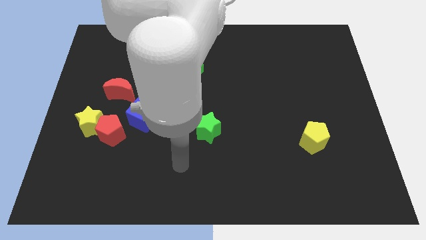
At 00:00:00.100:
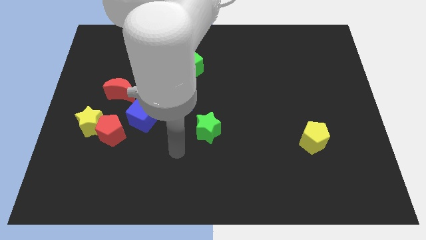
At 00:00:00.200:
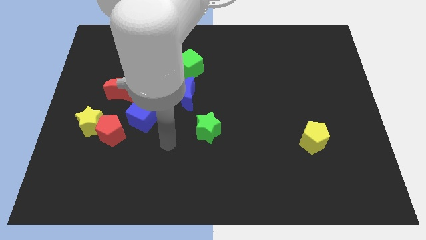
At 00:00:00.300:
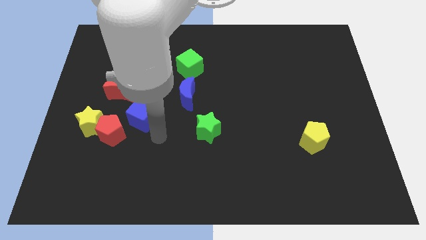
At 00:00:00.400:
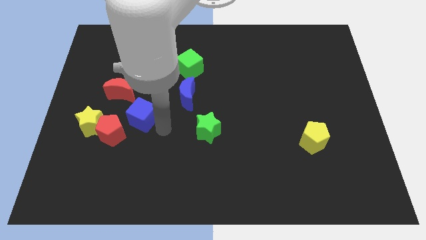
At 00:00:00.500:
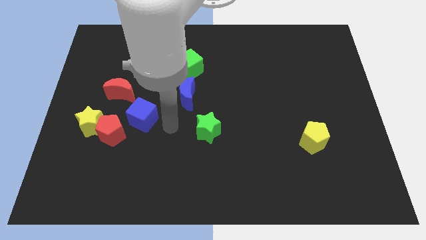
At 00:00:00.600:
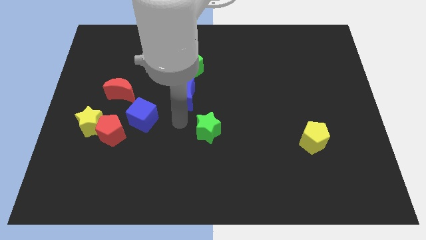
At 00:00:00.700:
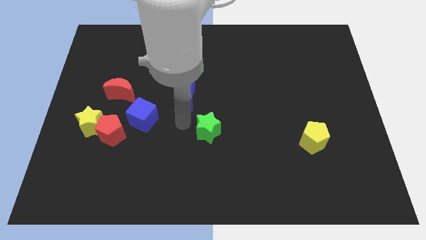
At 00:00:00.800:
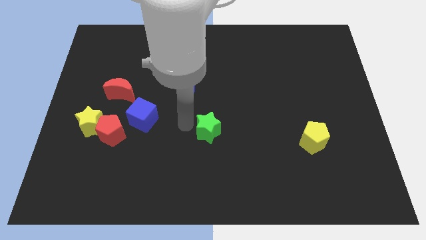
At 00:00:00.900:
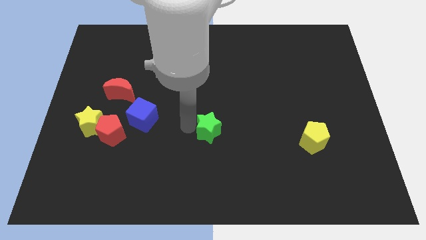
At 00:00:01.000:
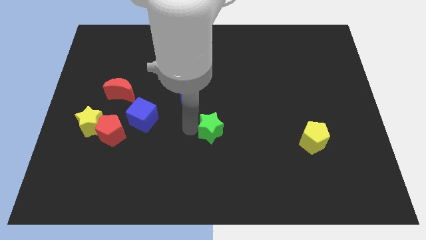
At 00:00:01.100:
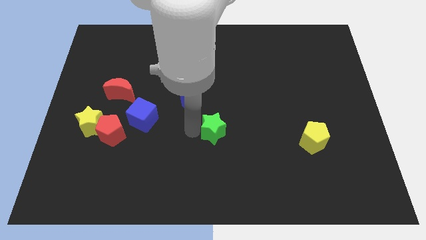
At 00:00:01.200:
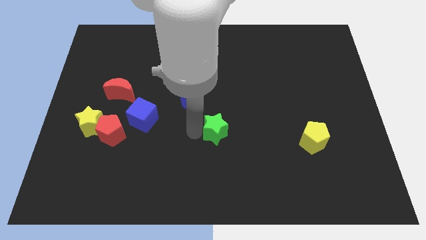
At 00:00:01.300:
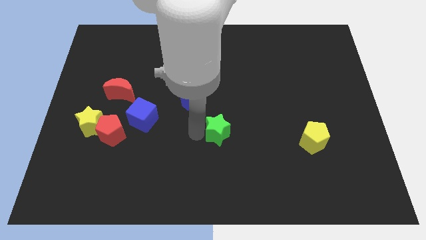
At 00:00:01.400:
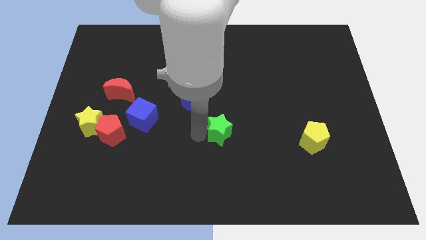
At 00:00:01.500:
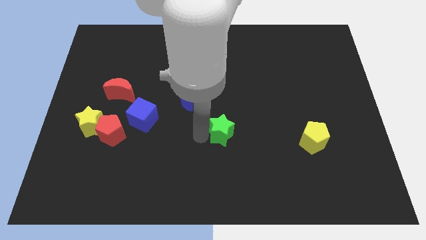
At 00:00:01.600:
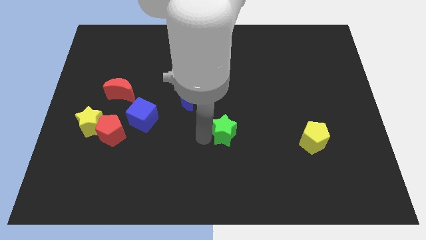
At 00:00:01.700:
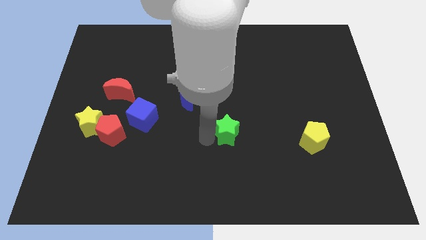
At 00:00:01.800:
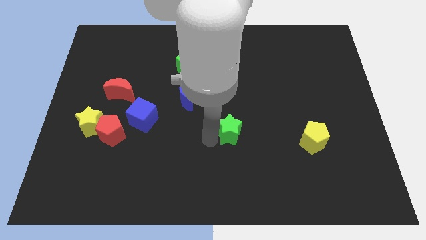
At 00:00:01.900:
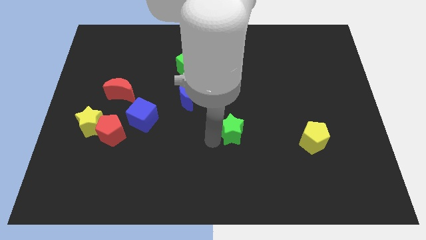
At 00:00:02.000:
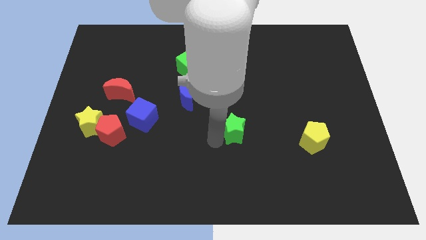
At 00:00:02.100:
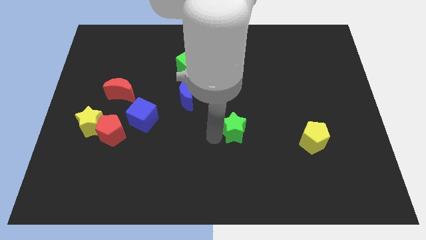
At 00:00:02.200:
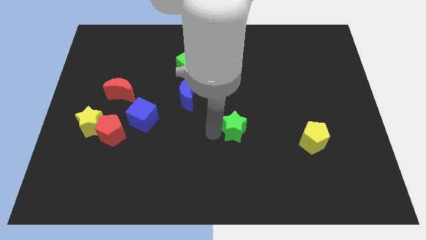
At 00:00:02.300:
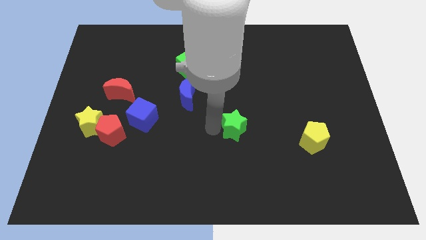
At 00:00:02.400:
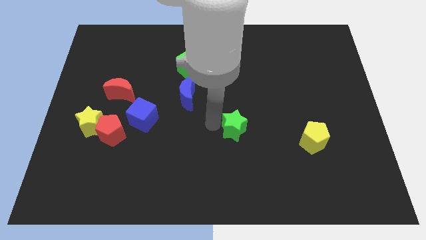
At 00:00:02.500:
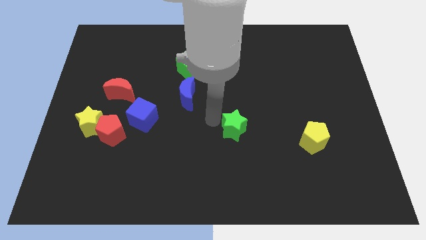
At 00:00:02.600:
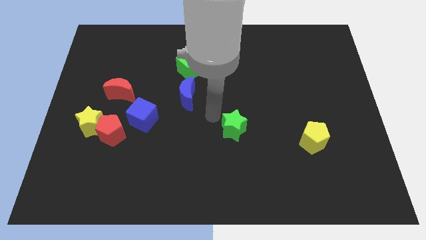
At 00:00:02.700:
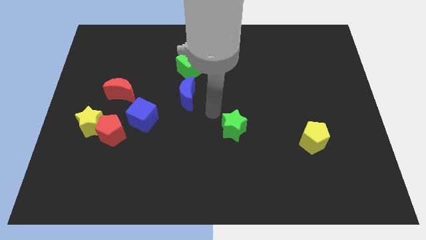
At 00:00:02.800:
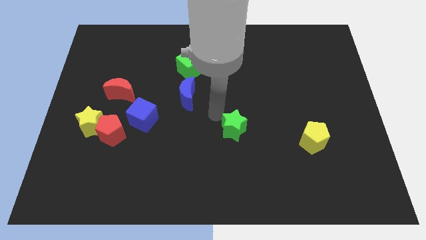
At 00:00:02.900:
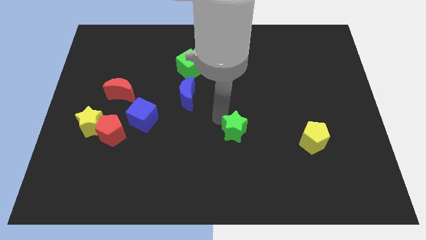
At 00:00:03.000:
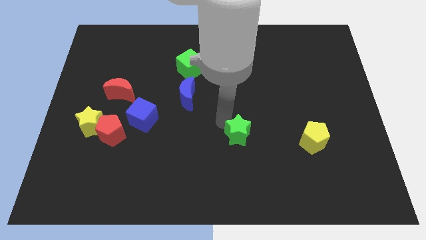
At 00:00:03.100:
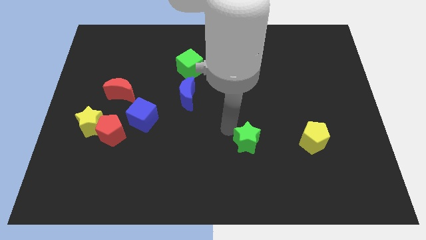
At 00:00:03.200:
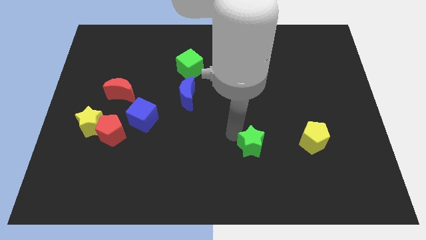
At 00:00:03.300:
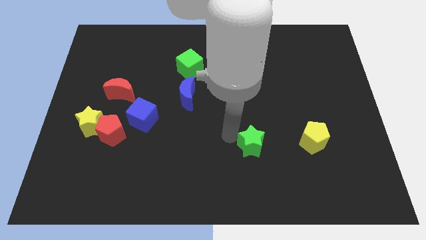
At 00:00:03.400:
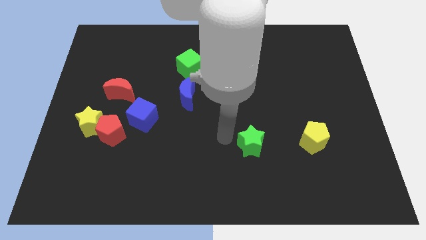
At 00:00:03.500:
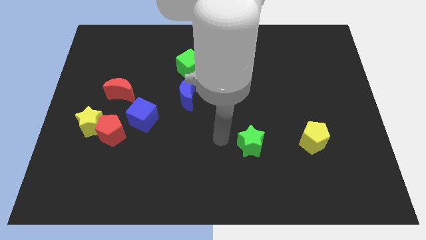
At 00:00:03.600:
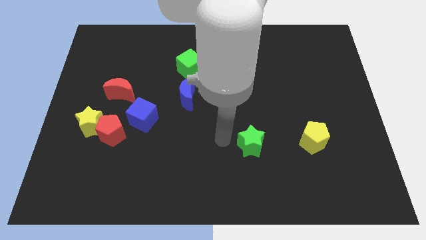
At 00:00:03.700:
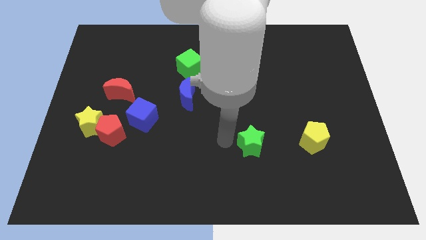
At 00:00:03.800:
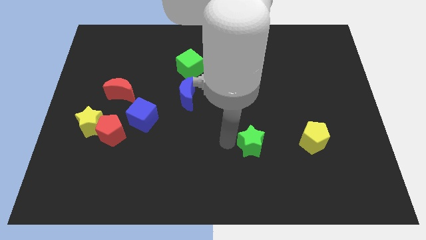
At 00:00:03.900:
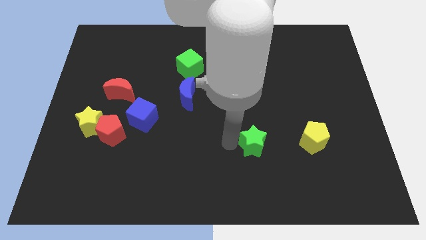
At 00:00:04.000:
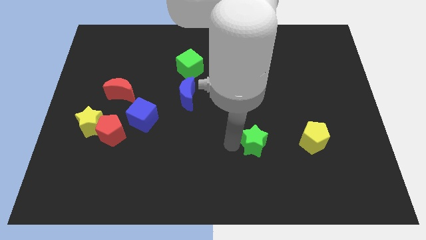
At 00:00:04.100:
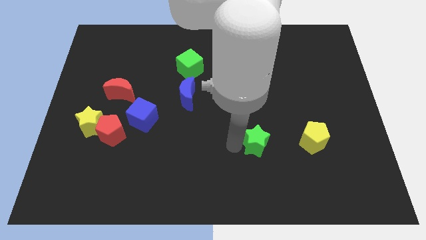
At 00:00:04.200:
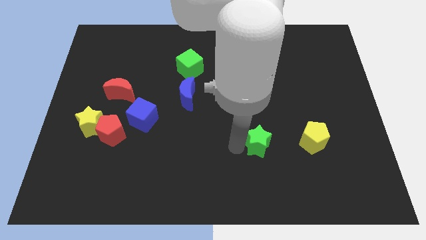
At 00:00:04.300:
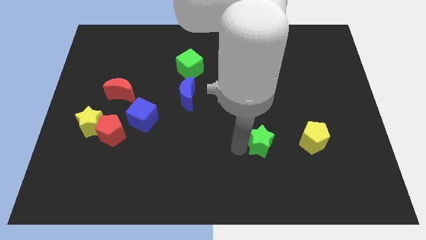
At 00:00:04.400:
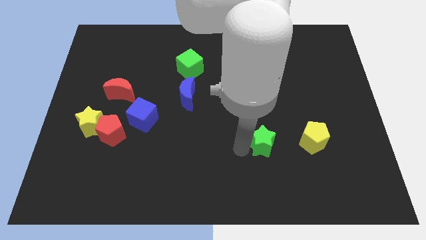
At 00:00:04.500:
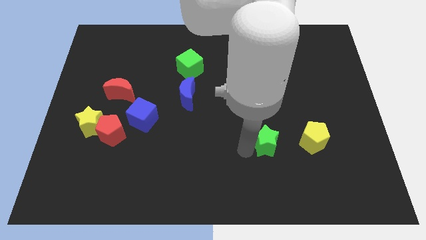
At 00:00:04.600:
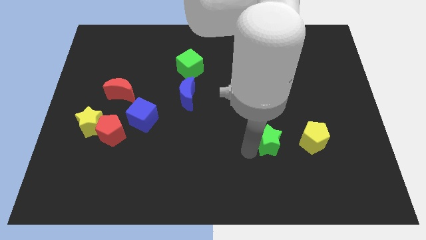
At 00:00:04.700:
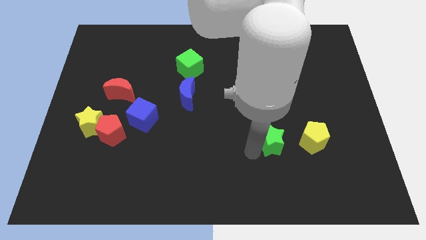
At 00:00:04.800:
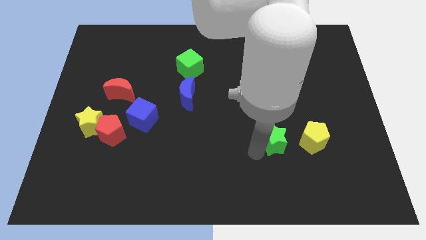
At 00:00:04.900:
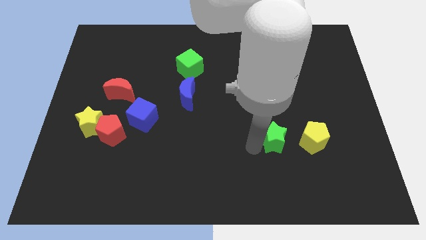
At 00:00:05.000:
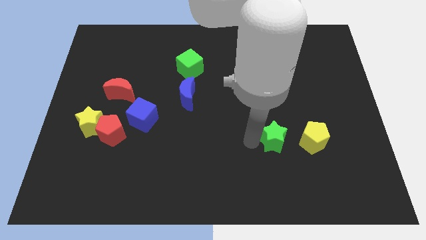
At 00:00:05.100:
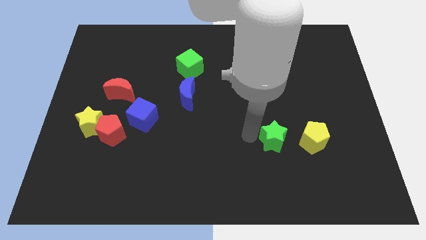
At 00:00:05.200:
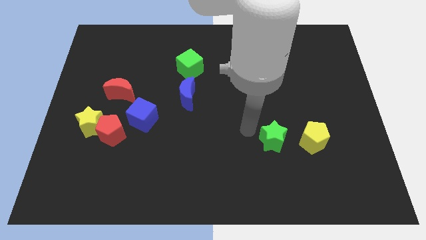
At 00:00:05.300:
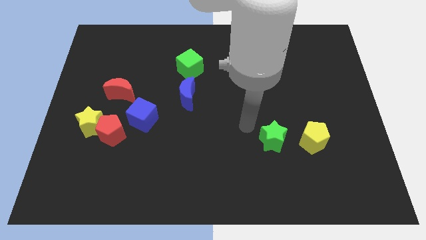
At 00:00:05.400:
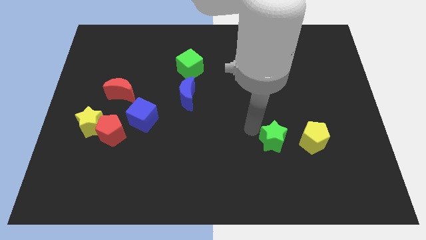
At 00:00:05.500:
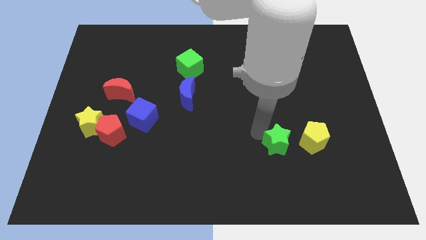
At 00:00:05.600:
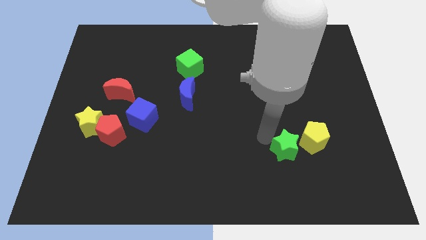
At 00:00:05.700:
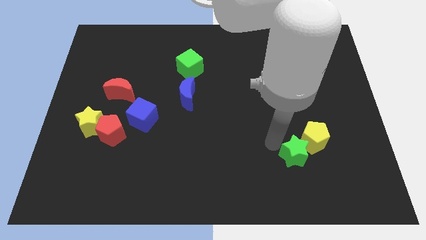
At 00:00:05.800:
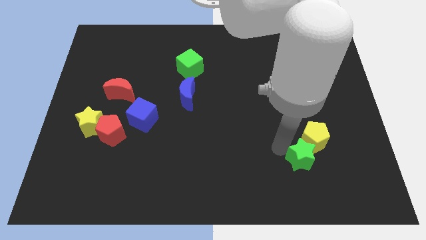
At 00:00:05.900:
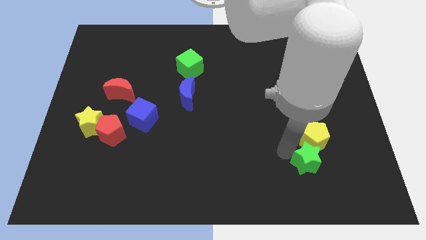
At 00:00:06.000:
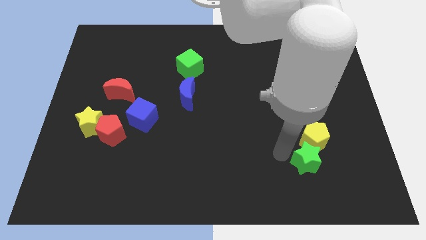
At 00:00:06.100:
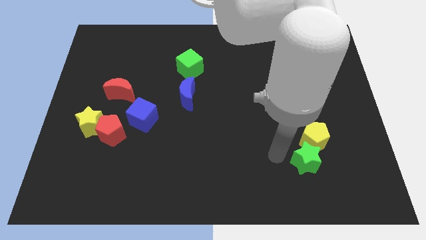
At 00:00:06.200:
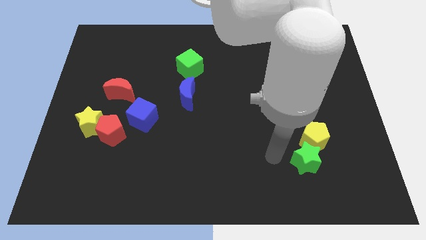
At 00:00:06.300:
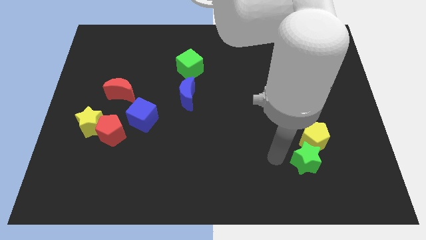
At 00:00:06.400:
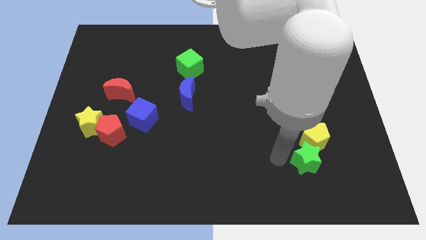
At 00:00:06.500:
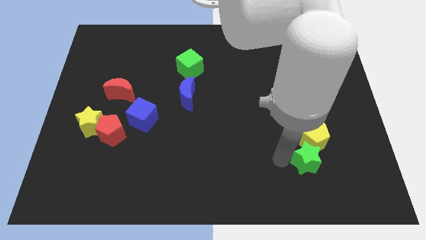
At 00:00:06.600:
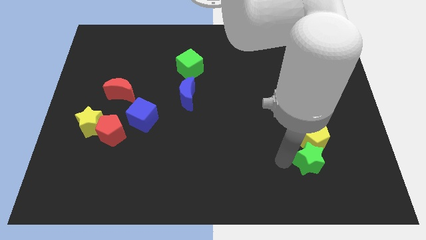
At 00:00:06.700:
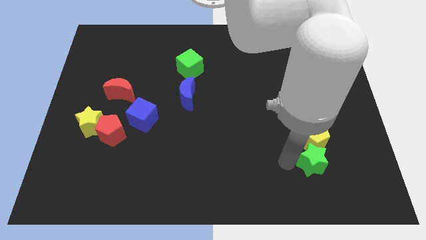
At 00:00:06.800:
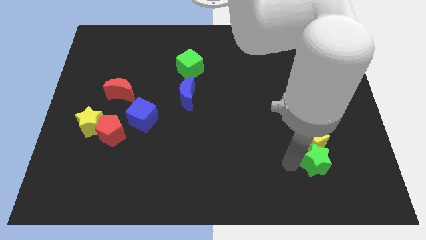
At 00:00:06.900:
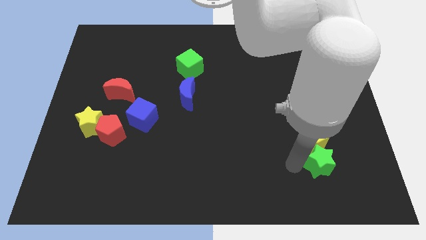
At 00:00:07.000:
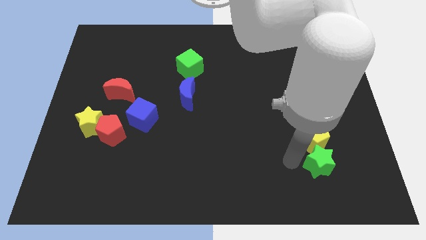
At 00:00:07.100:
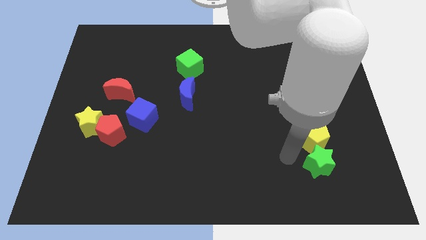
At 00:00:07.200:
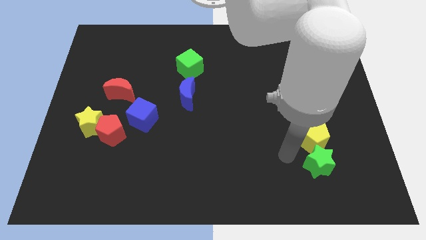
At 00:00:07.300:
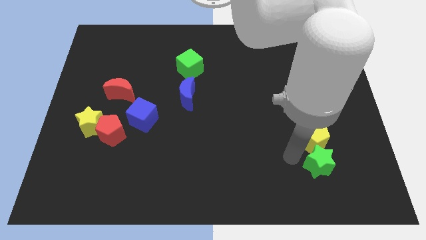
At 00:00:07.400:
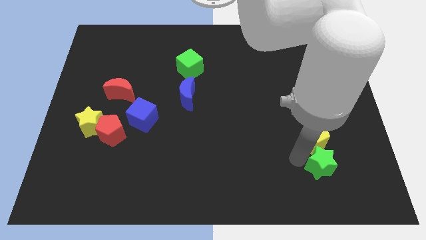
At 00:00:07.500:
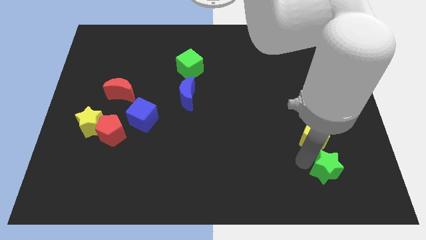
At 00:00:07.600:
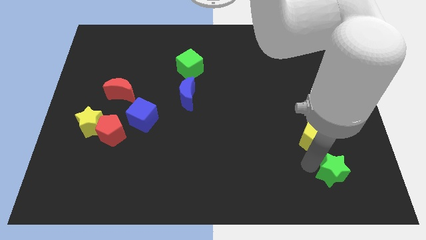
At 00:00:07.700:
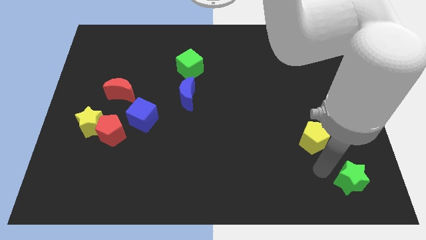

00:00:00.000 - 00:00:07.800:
put the green star to the bottom right corner
